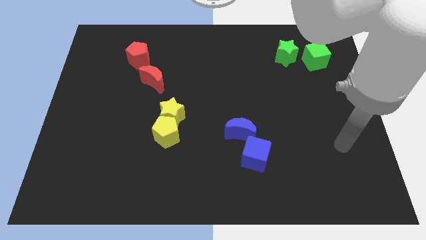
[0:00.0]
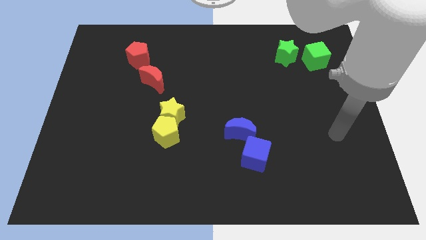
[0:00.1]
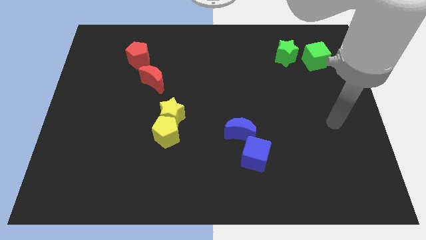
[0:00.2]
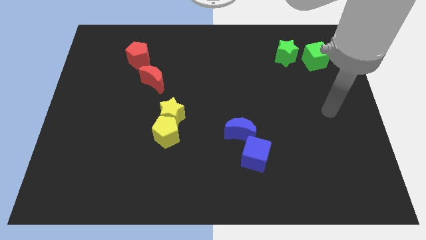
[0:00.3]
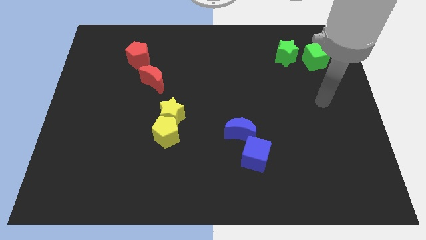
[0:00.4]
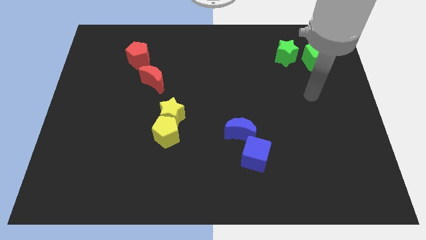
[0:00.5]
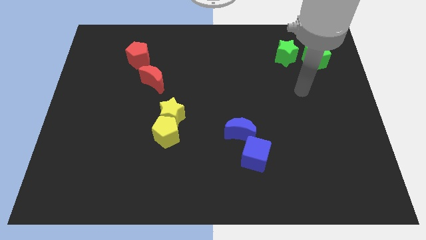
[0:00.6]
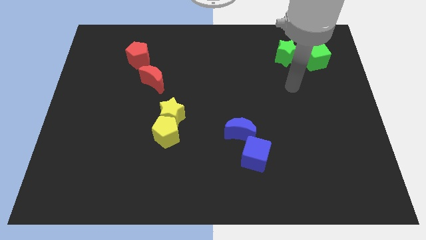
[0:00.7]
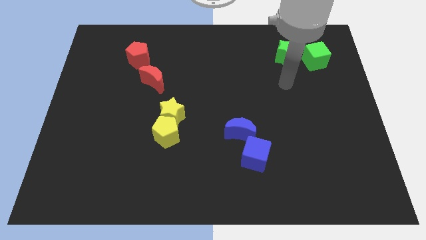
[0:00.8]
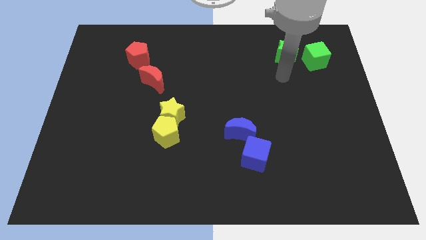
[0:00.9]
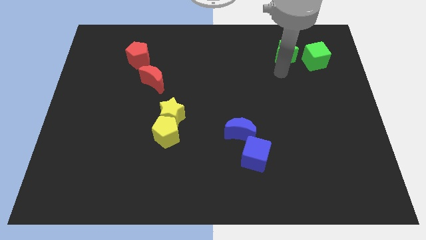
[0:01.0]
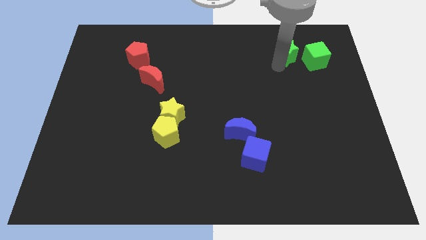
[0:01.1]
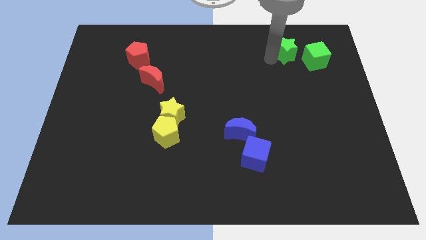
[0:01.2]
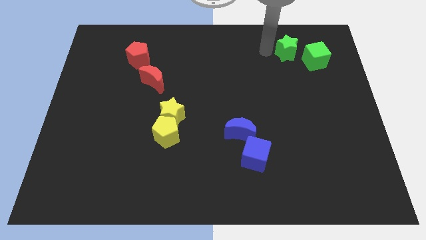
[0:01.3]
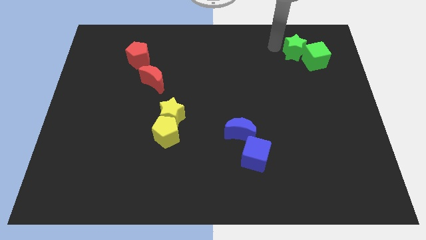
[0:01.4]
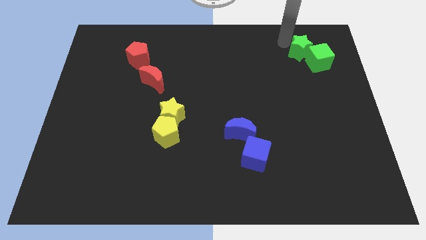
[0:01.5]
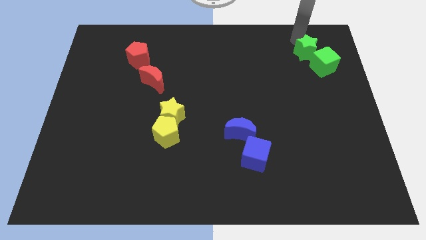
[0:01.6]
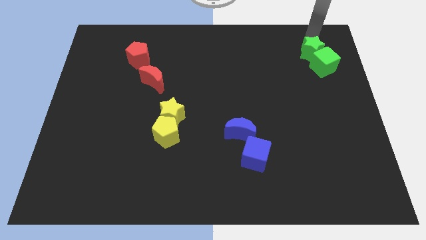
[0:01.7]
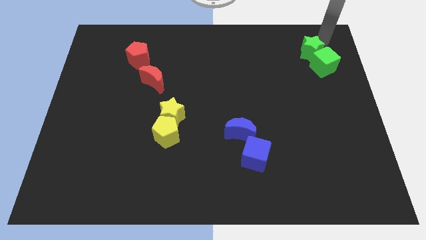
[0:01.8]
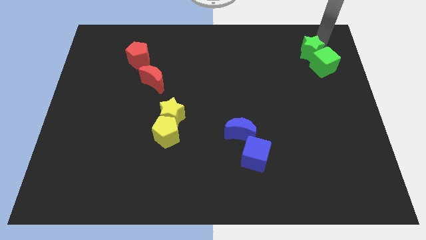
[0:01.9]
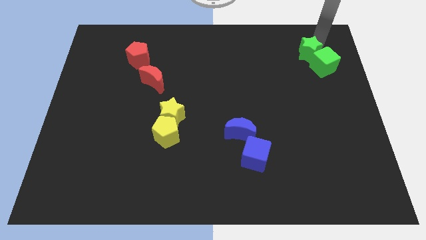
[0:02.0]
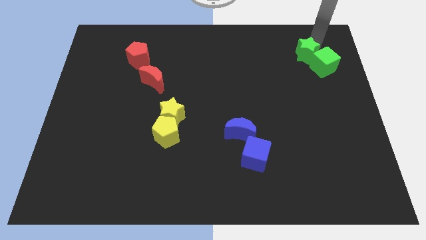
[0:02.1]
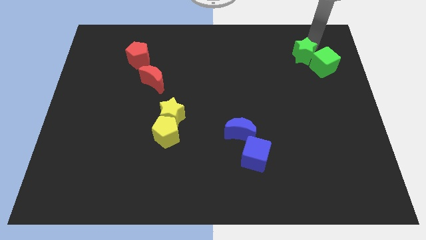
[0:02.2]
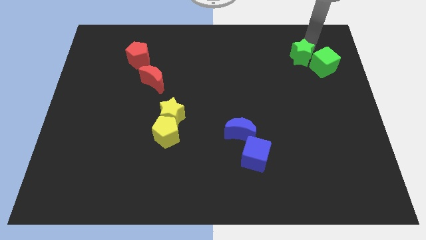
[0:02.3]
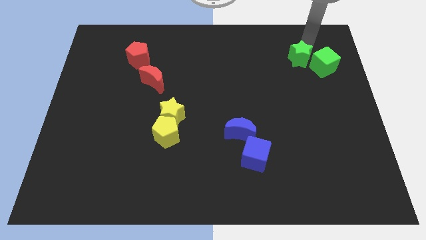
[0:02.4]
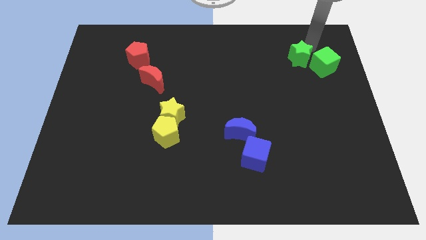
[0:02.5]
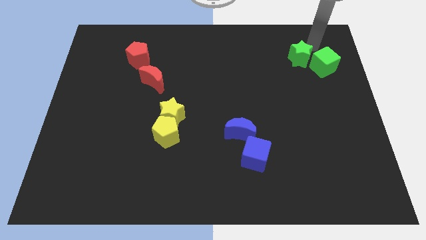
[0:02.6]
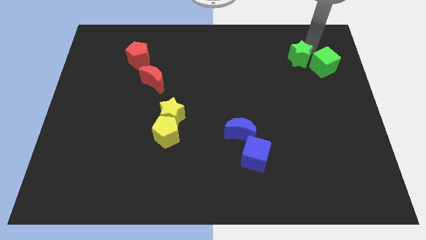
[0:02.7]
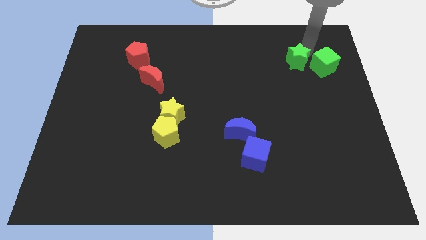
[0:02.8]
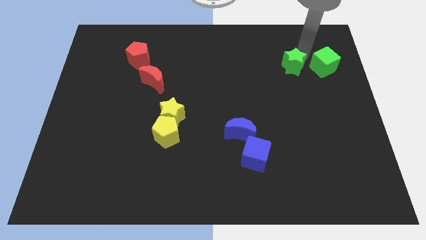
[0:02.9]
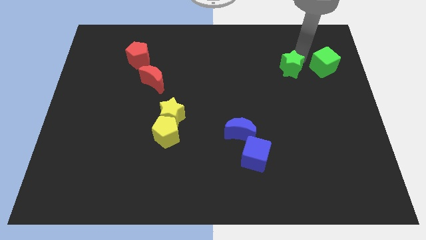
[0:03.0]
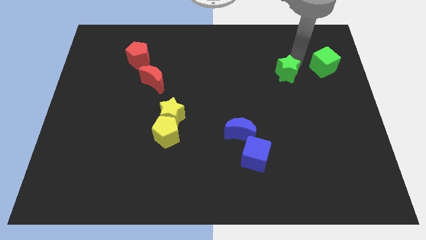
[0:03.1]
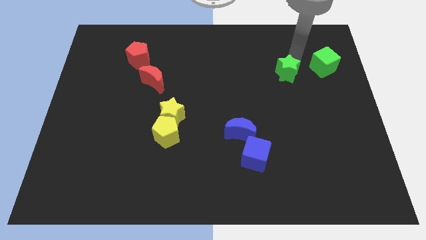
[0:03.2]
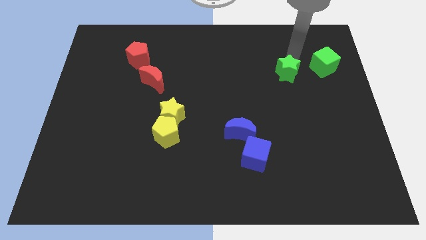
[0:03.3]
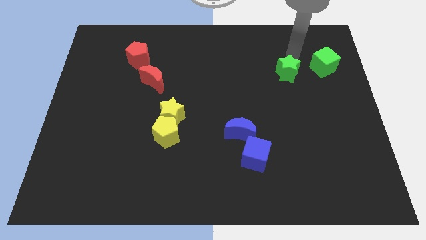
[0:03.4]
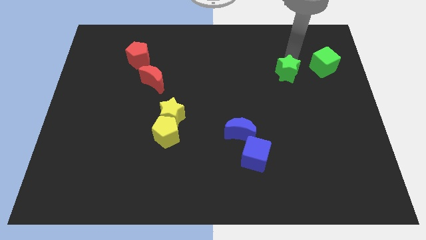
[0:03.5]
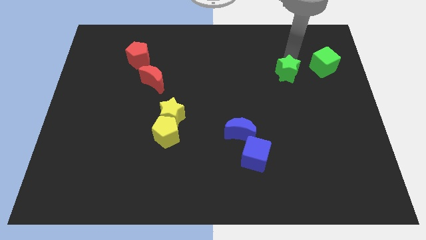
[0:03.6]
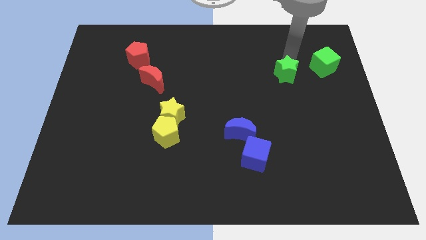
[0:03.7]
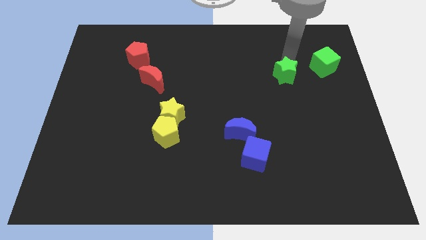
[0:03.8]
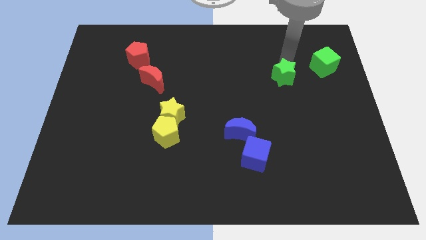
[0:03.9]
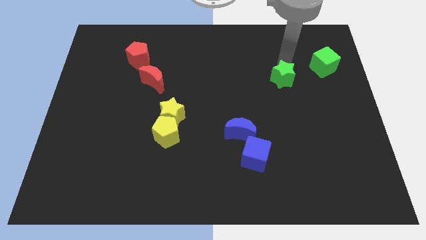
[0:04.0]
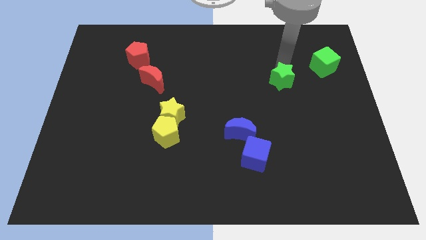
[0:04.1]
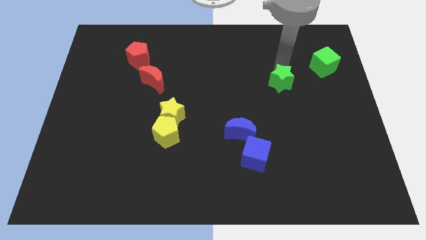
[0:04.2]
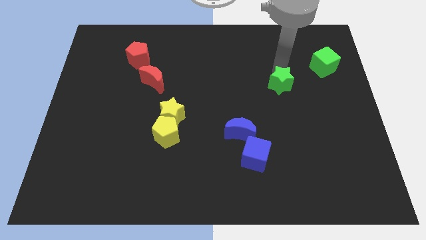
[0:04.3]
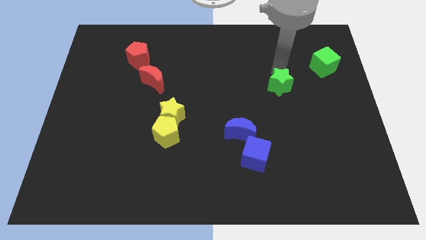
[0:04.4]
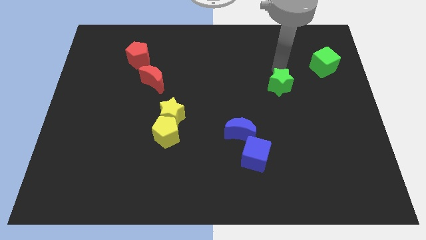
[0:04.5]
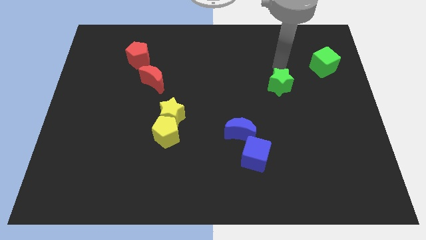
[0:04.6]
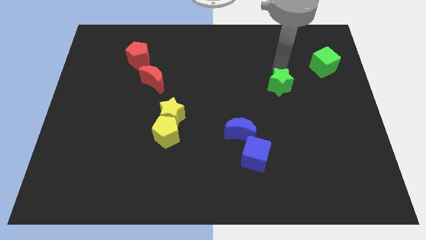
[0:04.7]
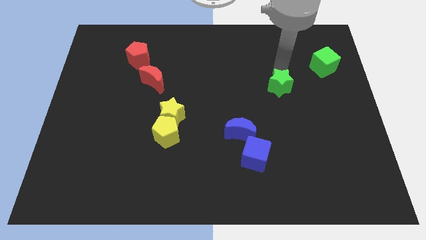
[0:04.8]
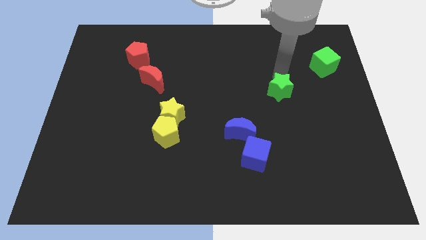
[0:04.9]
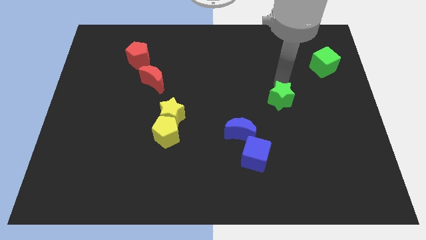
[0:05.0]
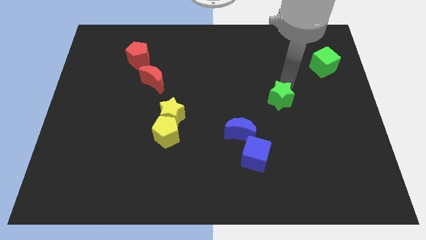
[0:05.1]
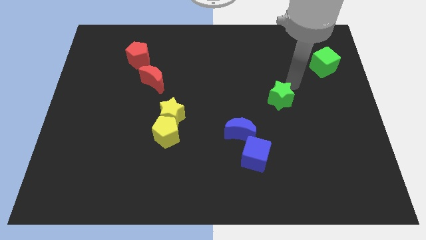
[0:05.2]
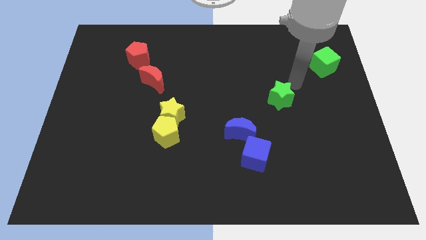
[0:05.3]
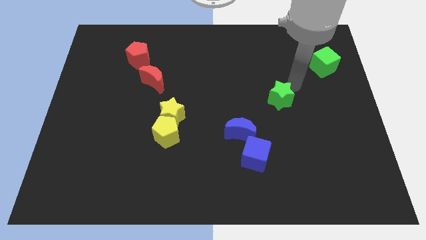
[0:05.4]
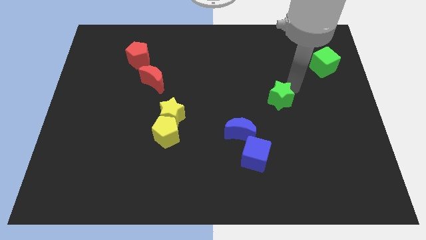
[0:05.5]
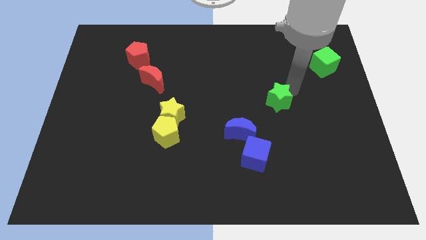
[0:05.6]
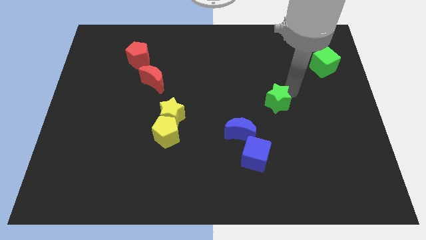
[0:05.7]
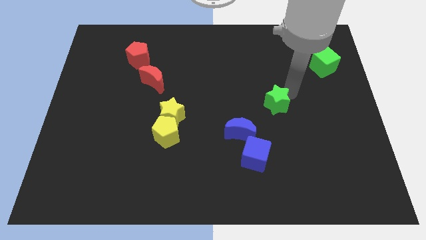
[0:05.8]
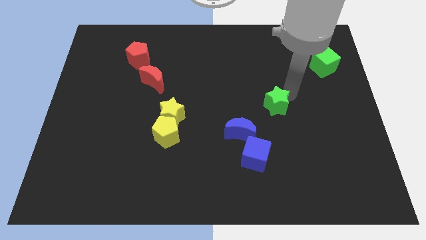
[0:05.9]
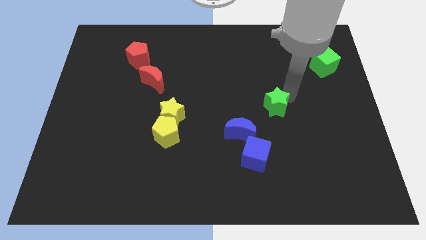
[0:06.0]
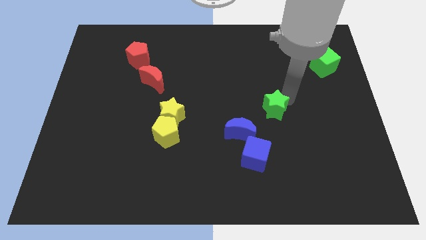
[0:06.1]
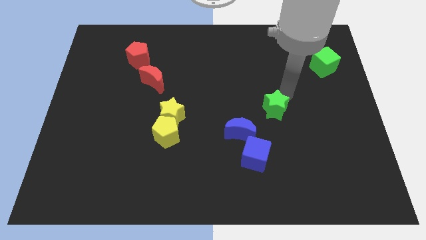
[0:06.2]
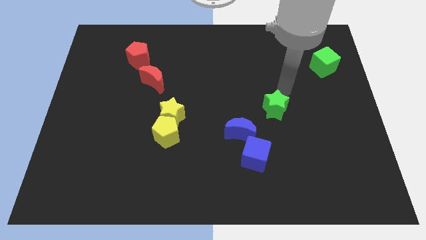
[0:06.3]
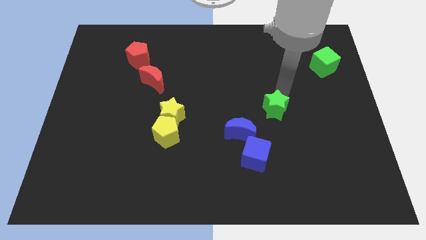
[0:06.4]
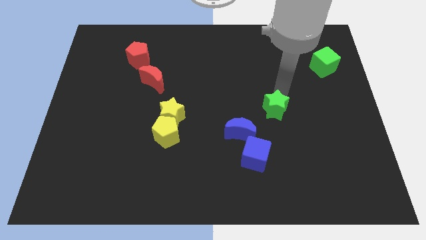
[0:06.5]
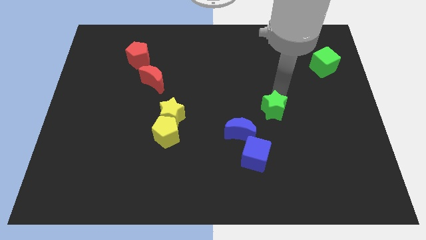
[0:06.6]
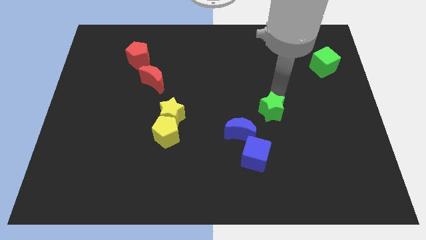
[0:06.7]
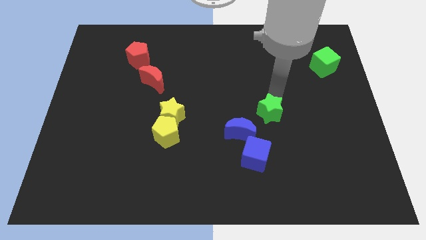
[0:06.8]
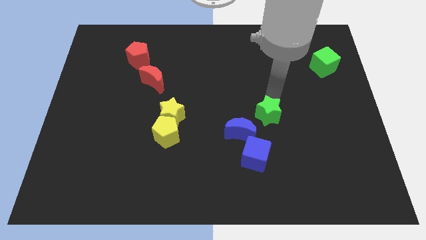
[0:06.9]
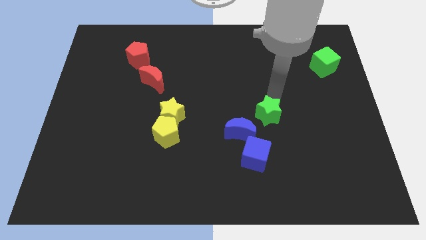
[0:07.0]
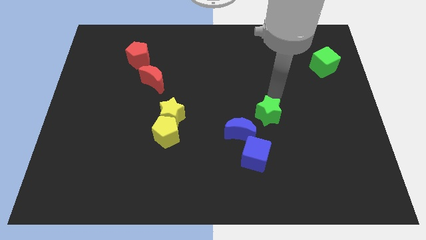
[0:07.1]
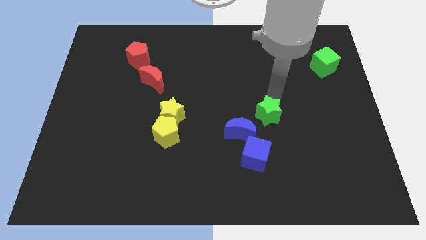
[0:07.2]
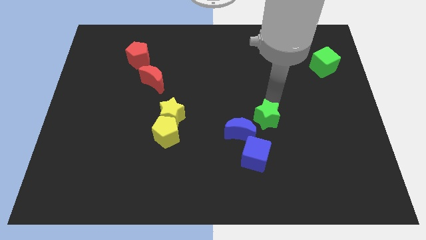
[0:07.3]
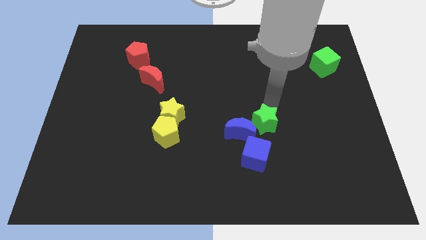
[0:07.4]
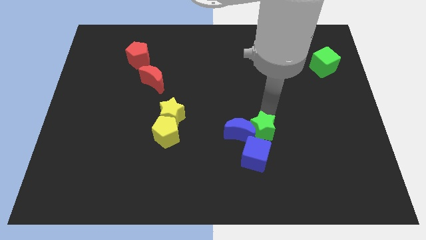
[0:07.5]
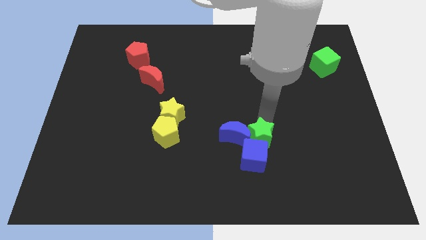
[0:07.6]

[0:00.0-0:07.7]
slide the green star close to the blue cube

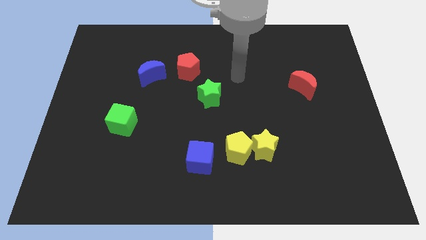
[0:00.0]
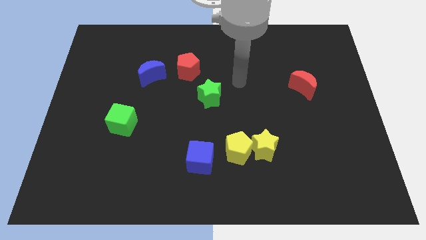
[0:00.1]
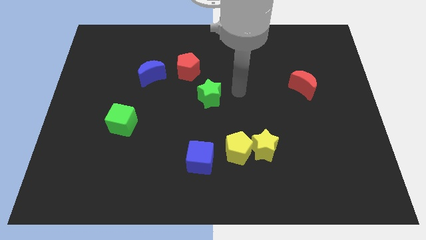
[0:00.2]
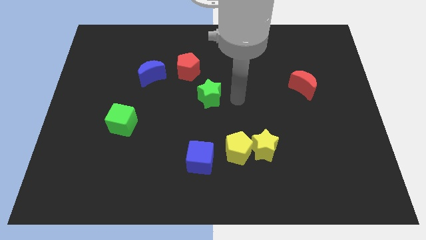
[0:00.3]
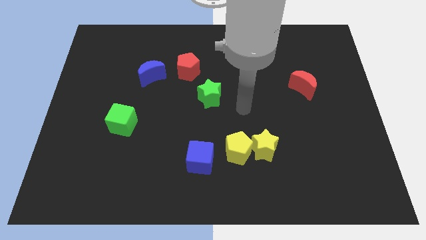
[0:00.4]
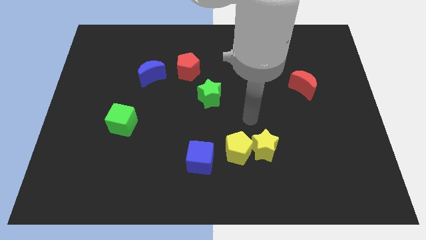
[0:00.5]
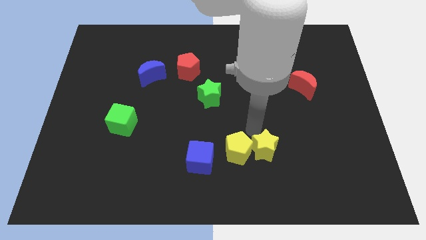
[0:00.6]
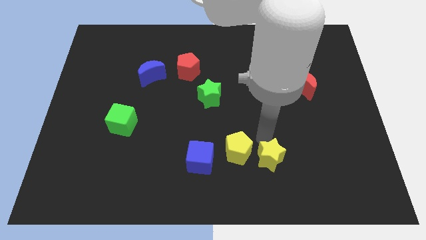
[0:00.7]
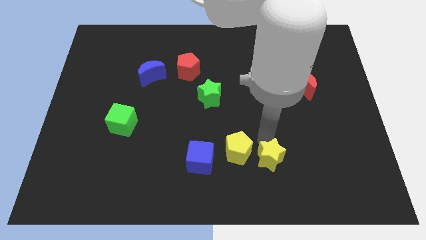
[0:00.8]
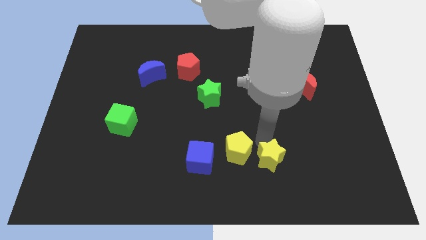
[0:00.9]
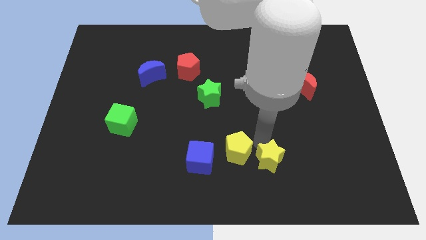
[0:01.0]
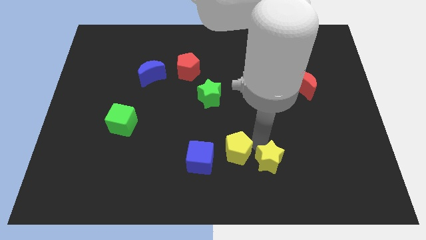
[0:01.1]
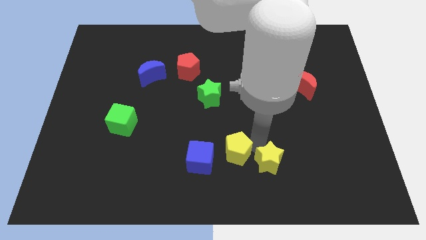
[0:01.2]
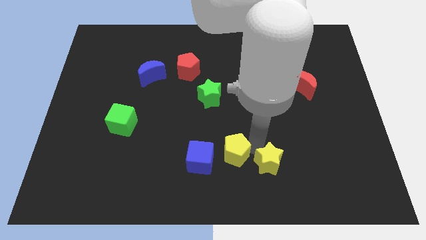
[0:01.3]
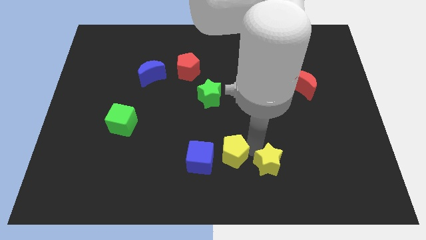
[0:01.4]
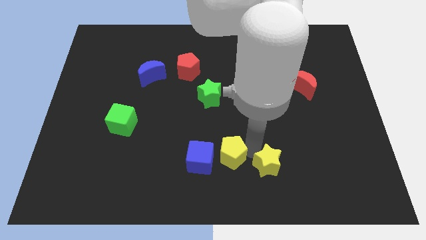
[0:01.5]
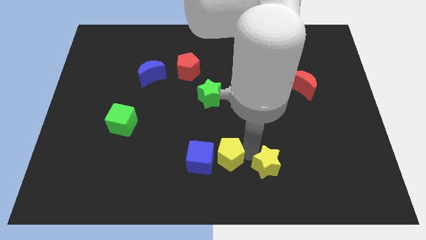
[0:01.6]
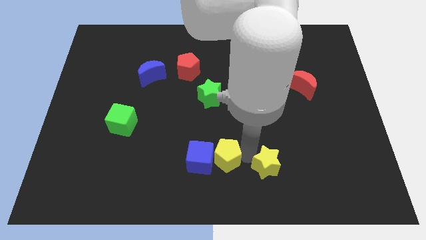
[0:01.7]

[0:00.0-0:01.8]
slide the yellow pentagon next to the blue cube
